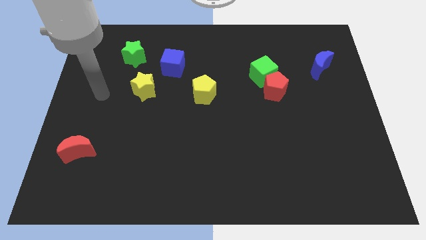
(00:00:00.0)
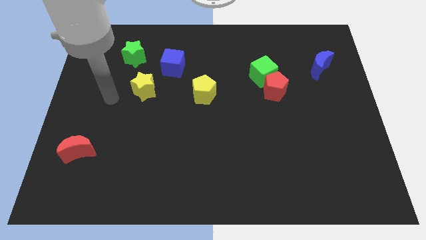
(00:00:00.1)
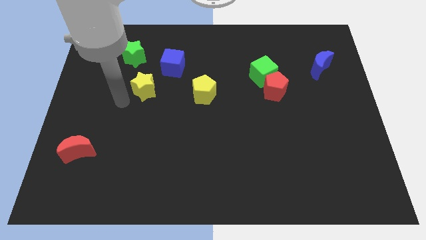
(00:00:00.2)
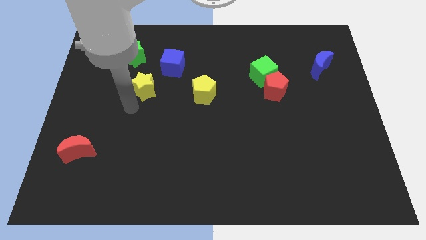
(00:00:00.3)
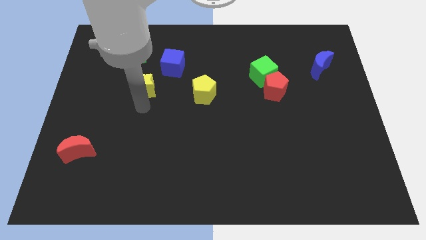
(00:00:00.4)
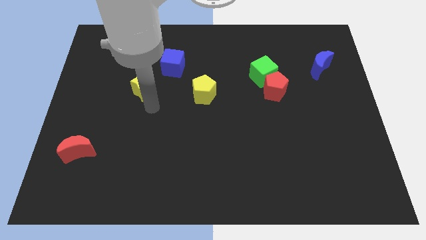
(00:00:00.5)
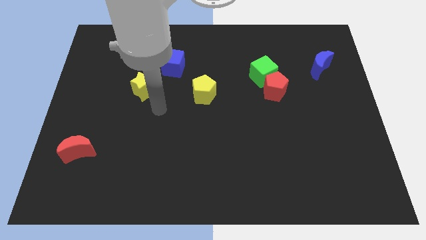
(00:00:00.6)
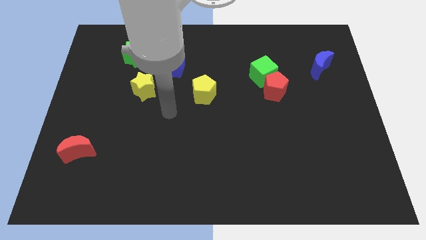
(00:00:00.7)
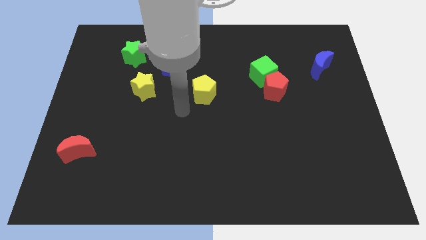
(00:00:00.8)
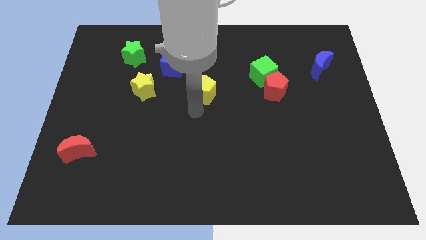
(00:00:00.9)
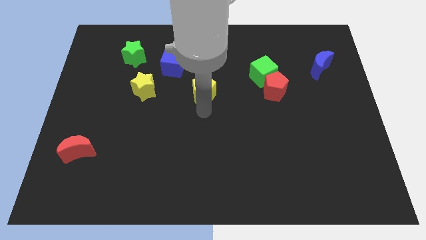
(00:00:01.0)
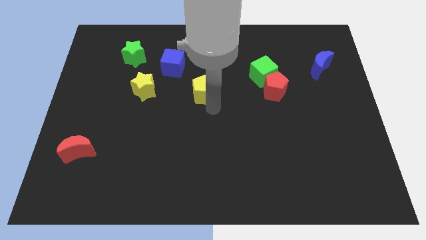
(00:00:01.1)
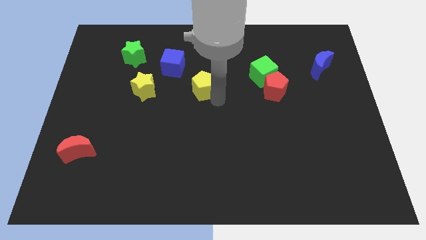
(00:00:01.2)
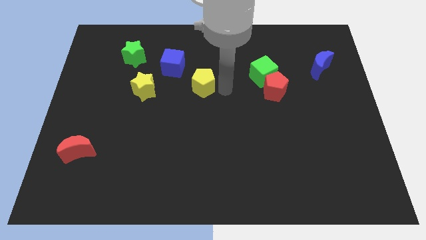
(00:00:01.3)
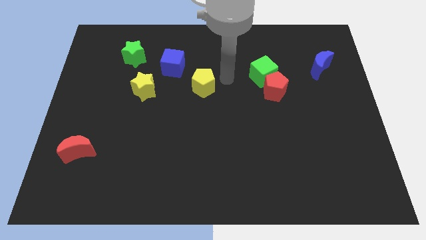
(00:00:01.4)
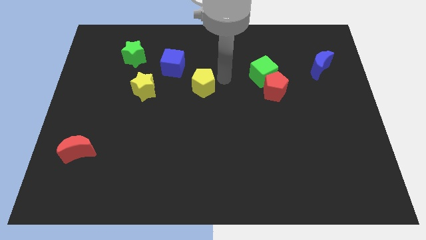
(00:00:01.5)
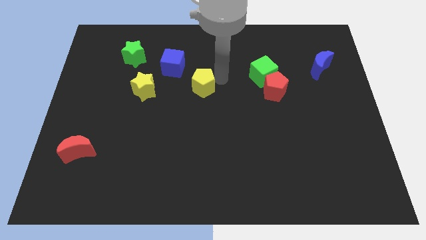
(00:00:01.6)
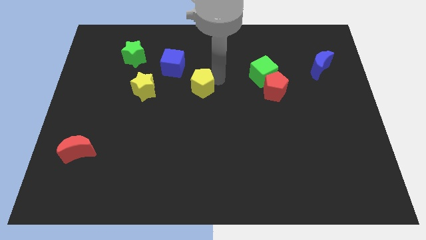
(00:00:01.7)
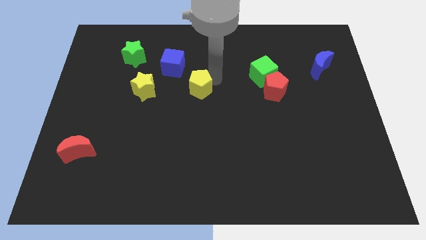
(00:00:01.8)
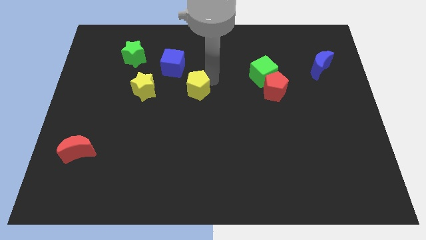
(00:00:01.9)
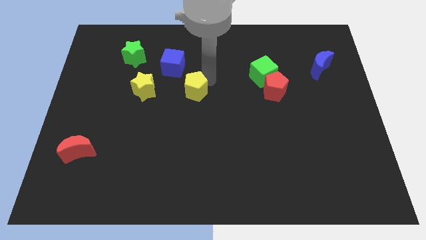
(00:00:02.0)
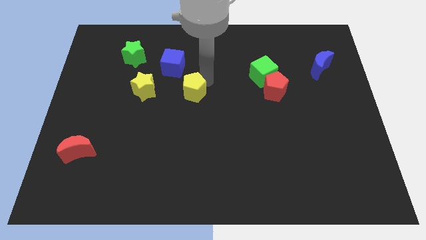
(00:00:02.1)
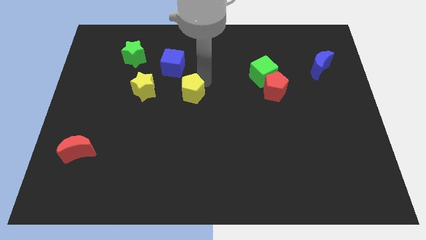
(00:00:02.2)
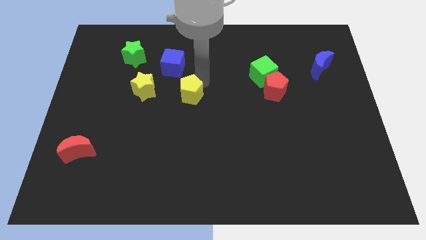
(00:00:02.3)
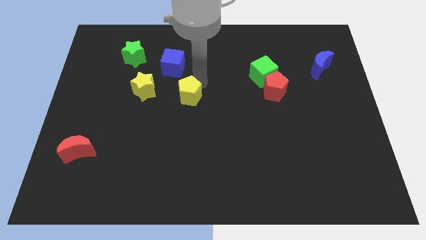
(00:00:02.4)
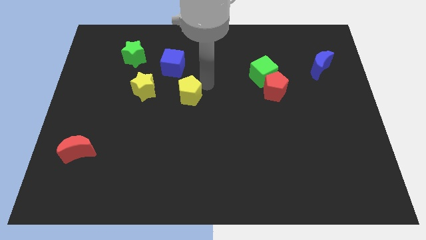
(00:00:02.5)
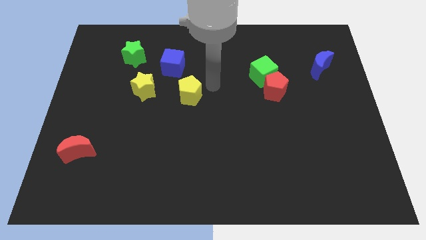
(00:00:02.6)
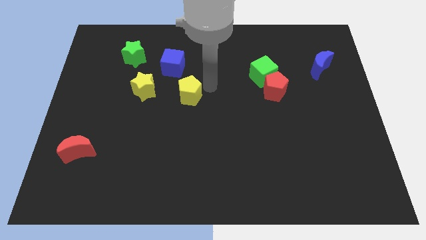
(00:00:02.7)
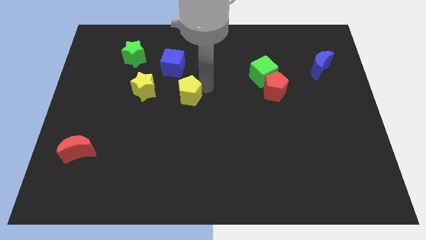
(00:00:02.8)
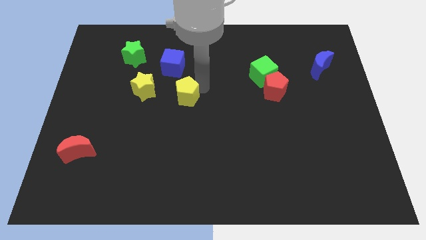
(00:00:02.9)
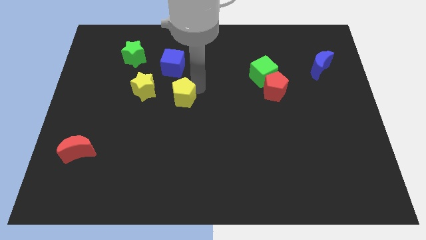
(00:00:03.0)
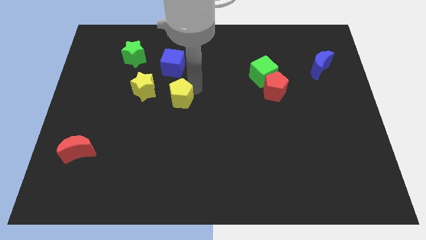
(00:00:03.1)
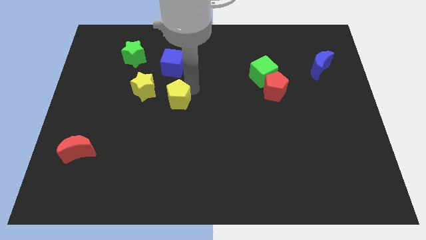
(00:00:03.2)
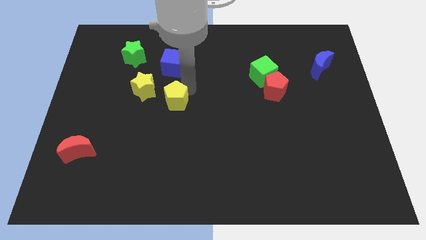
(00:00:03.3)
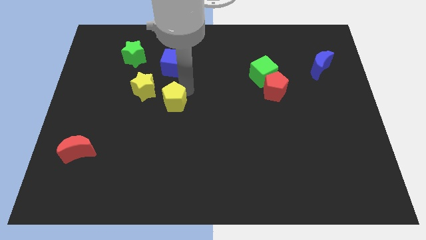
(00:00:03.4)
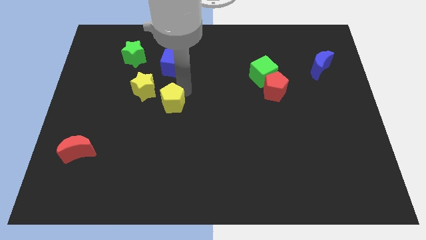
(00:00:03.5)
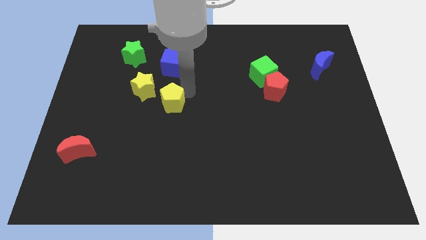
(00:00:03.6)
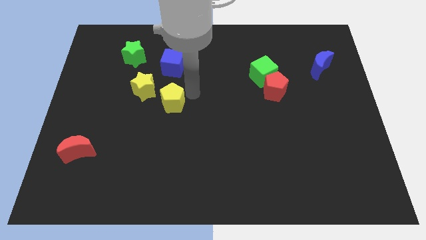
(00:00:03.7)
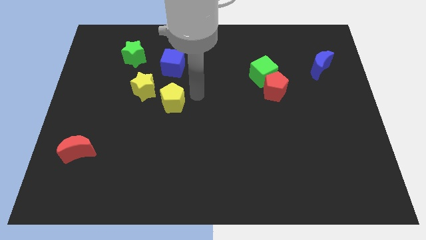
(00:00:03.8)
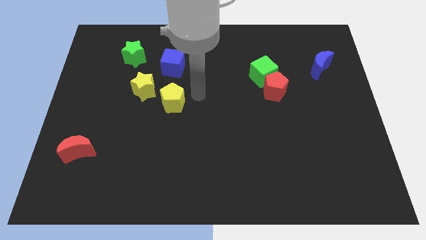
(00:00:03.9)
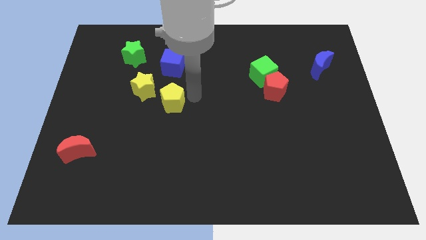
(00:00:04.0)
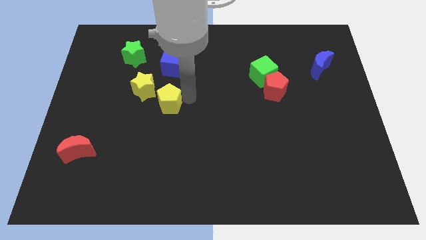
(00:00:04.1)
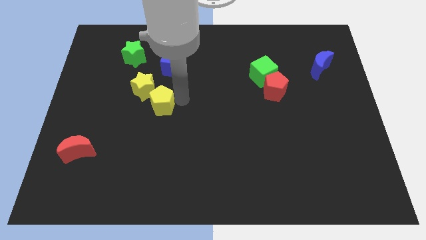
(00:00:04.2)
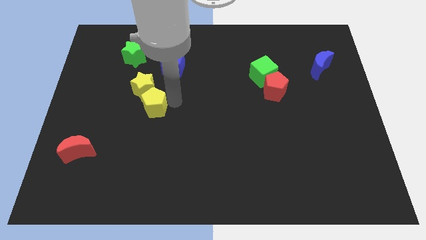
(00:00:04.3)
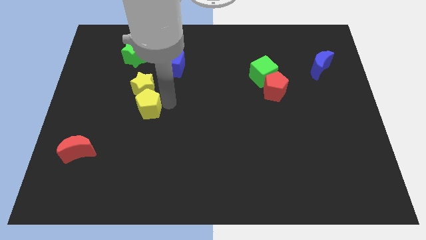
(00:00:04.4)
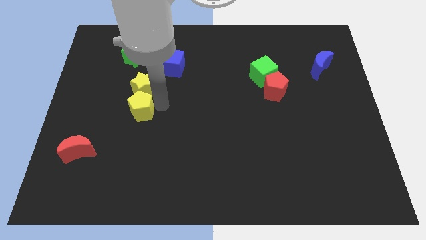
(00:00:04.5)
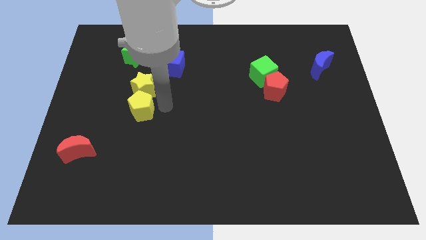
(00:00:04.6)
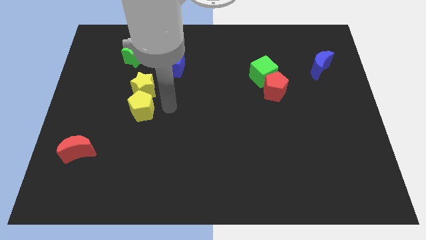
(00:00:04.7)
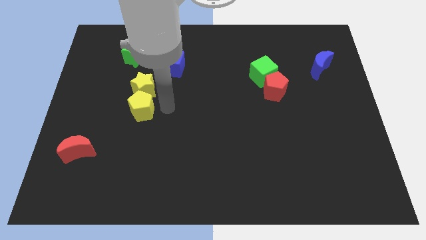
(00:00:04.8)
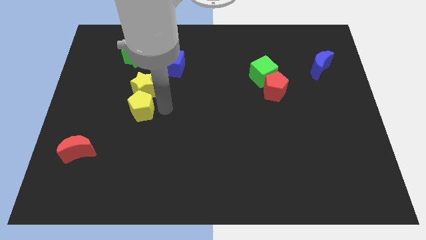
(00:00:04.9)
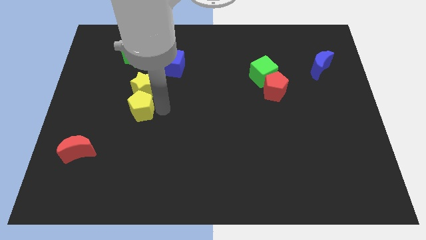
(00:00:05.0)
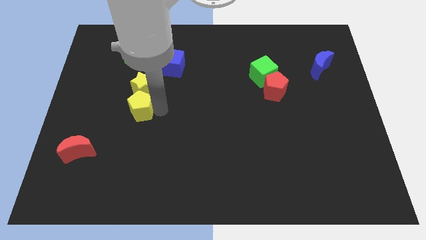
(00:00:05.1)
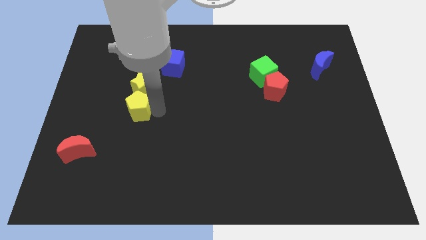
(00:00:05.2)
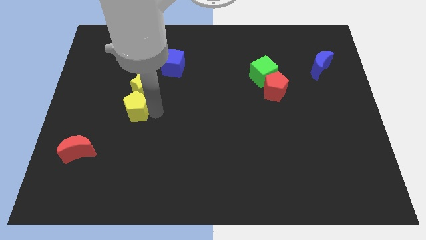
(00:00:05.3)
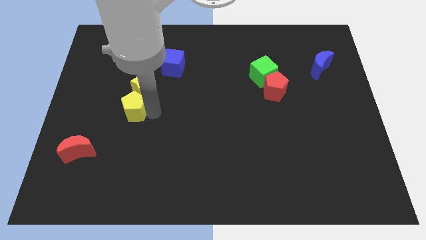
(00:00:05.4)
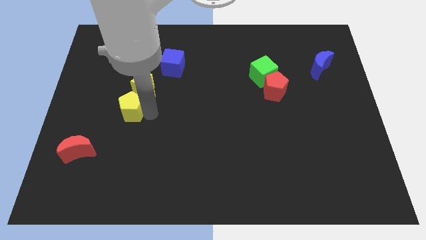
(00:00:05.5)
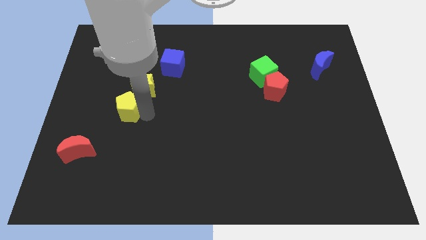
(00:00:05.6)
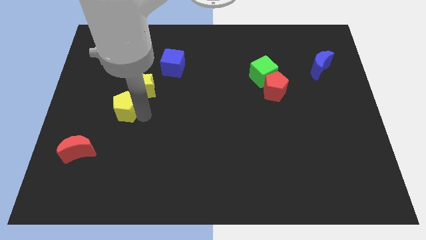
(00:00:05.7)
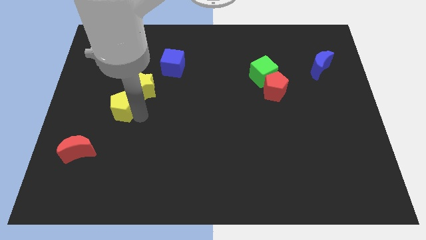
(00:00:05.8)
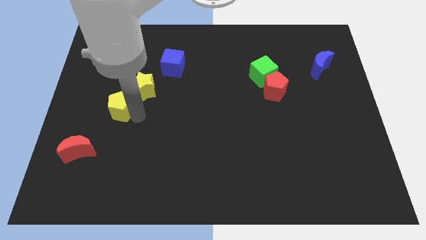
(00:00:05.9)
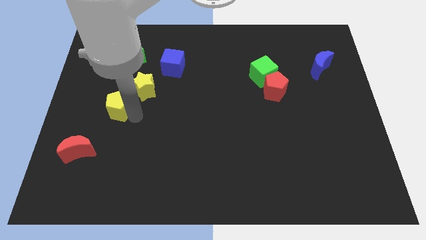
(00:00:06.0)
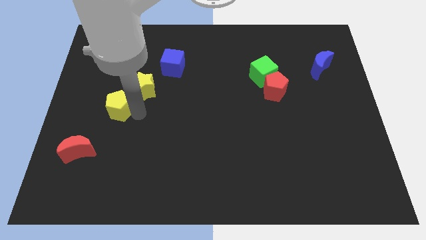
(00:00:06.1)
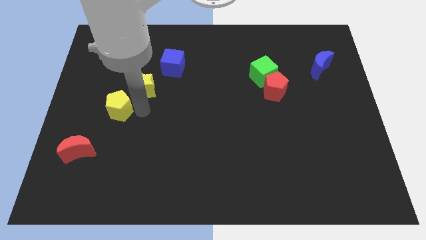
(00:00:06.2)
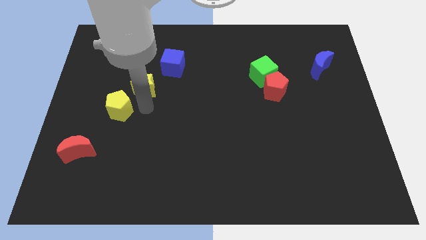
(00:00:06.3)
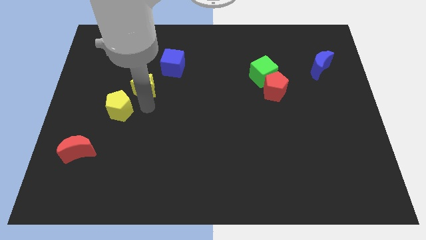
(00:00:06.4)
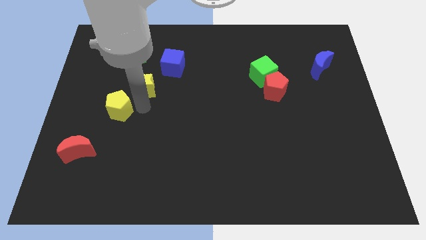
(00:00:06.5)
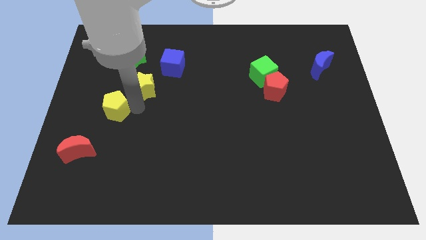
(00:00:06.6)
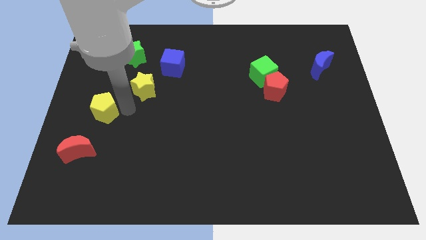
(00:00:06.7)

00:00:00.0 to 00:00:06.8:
put the yellow pentagon to the left side
